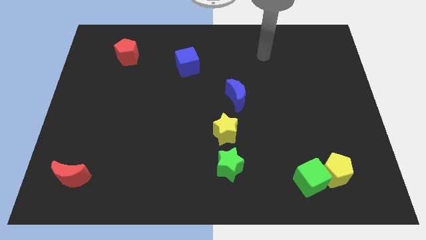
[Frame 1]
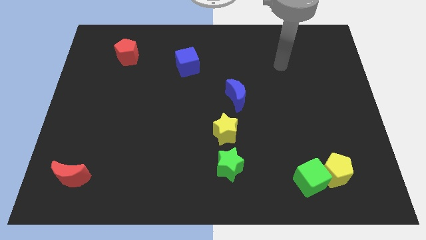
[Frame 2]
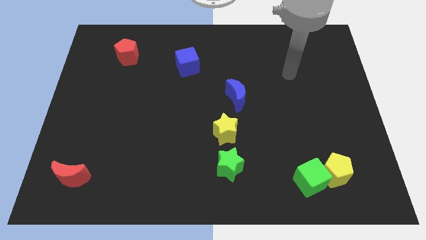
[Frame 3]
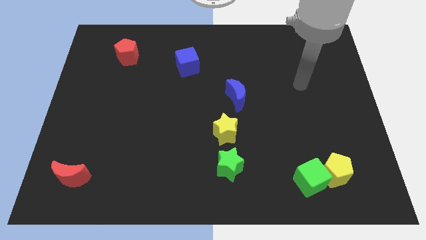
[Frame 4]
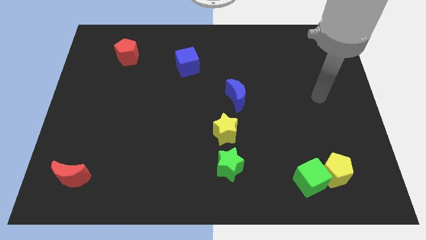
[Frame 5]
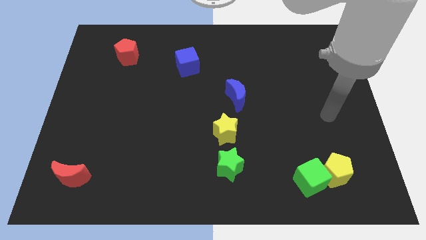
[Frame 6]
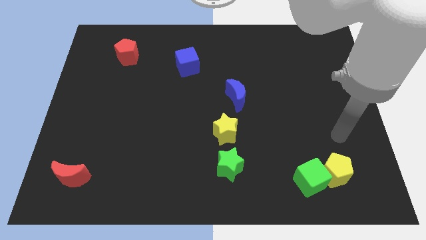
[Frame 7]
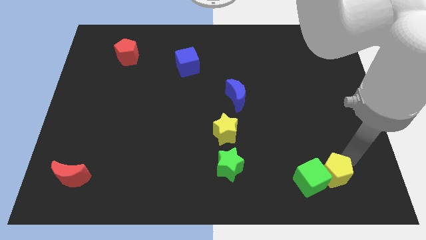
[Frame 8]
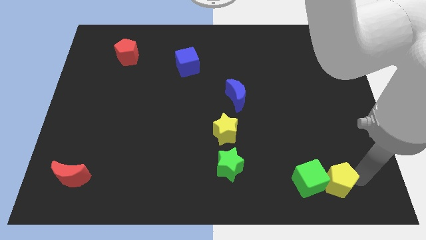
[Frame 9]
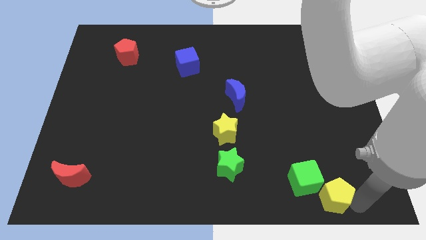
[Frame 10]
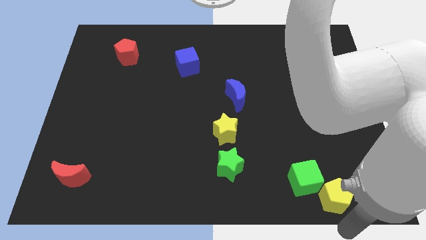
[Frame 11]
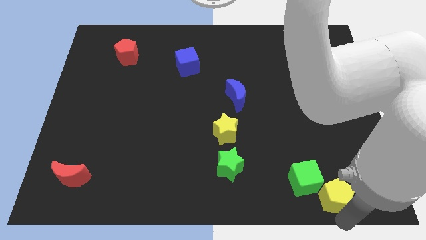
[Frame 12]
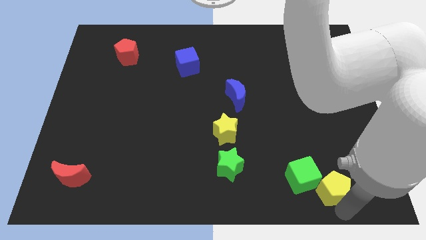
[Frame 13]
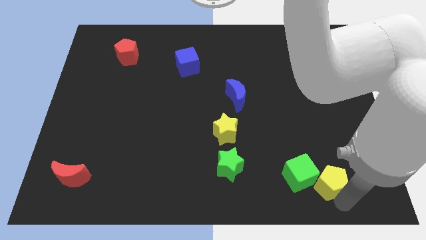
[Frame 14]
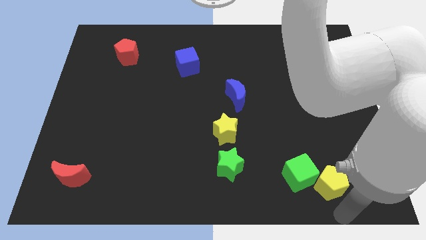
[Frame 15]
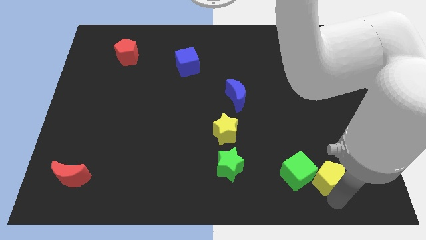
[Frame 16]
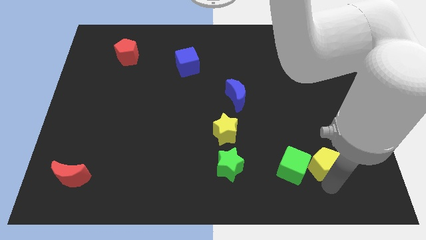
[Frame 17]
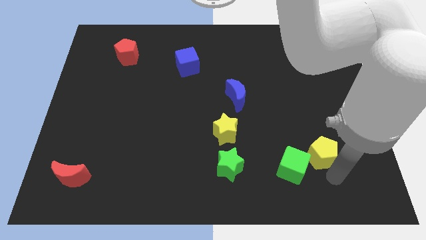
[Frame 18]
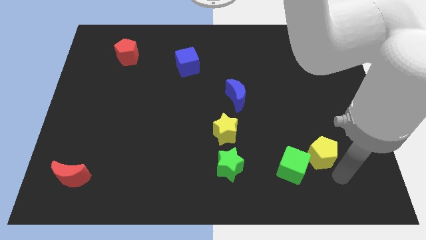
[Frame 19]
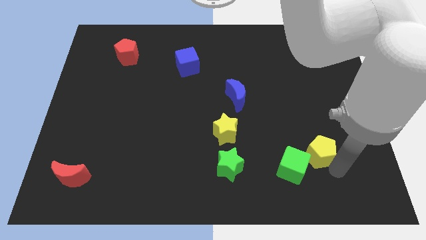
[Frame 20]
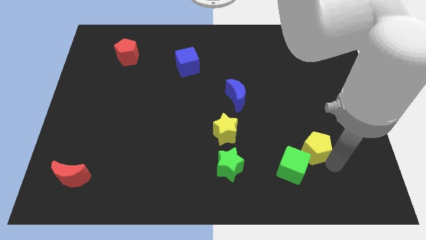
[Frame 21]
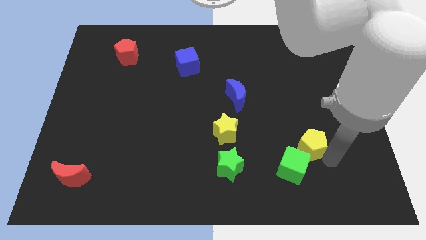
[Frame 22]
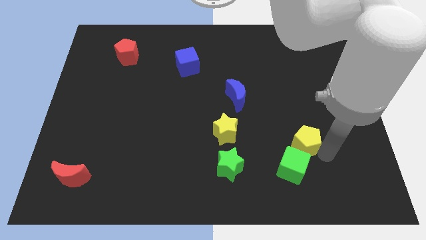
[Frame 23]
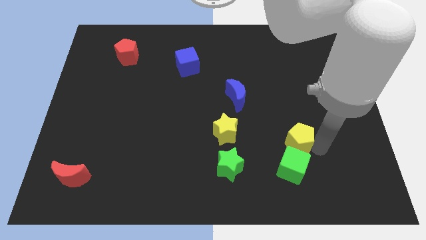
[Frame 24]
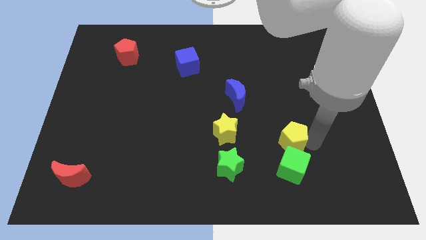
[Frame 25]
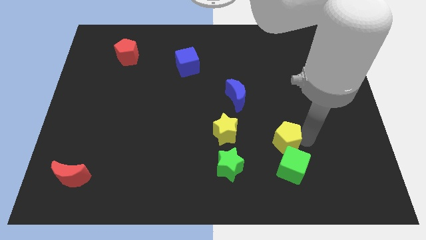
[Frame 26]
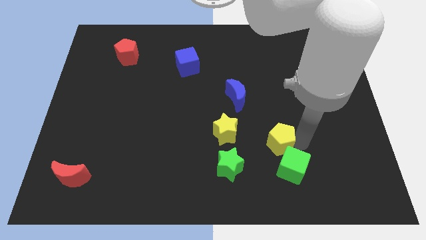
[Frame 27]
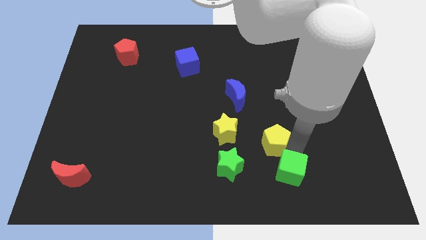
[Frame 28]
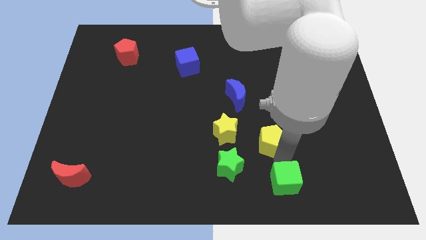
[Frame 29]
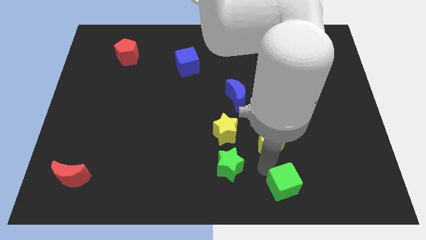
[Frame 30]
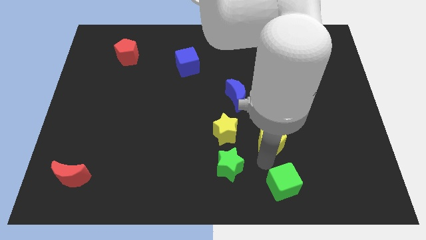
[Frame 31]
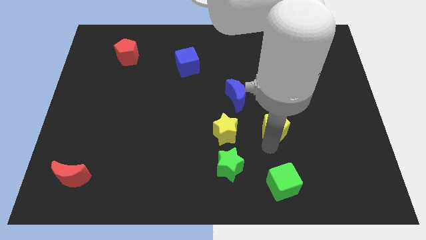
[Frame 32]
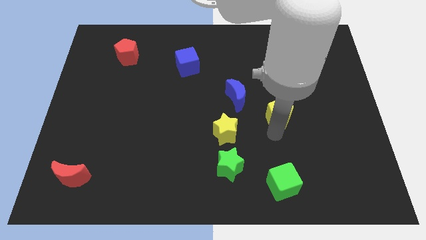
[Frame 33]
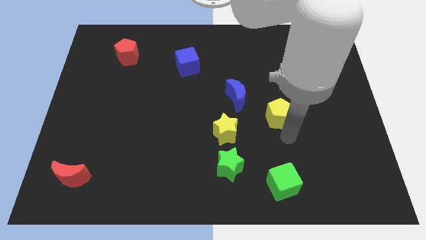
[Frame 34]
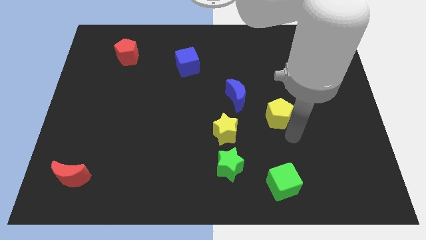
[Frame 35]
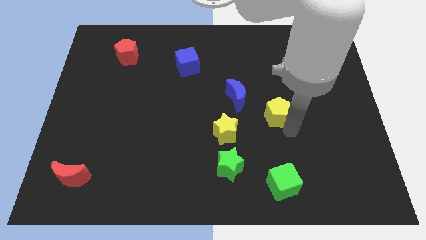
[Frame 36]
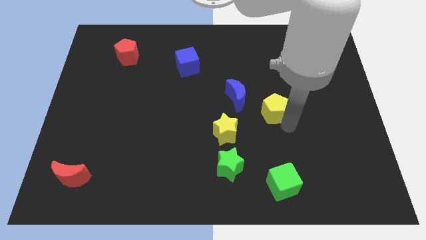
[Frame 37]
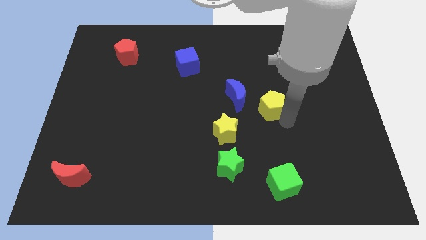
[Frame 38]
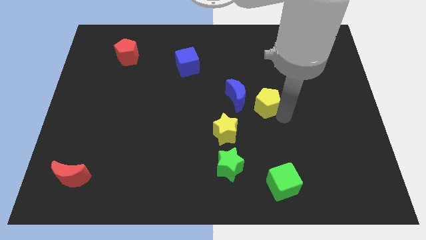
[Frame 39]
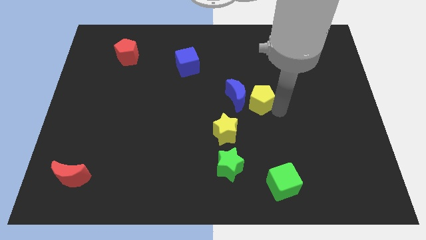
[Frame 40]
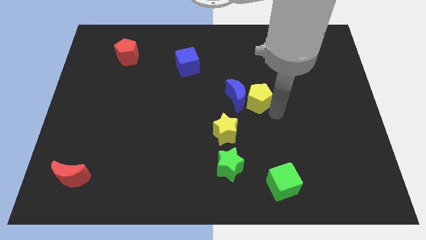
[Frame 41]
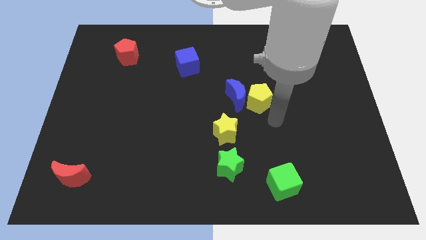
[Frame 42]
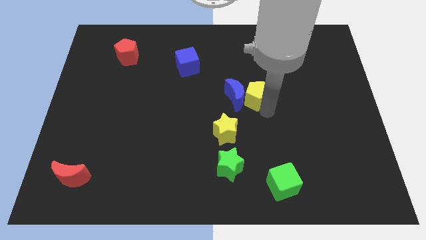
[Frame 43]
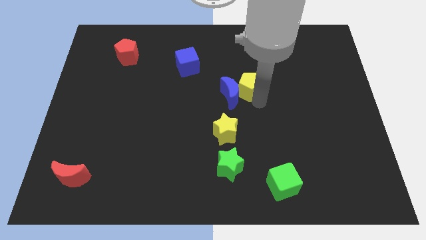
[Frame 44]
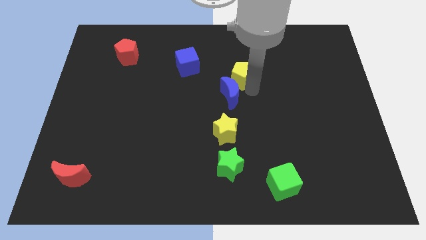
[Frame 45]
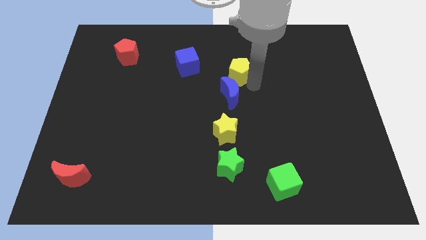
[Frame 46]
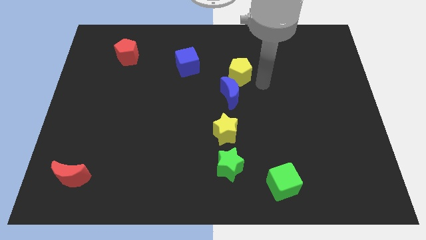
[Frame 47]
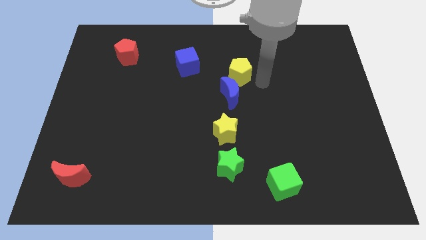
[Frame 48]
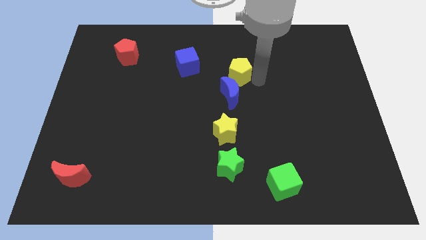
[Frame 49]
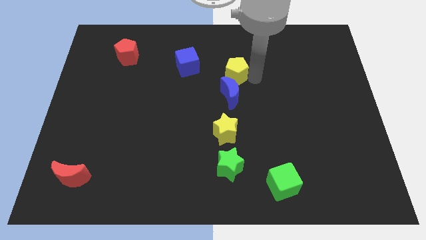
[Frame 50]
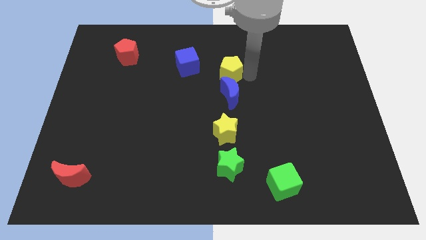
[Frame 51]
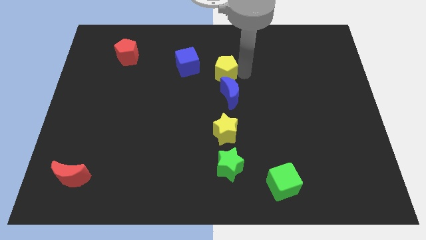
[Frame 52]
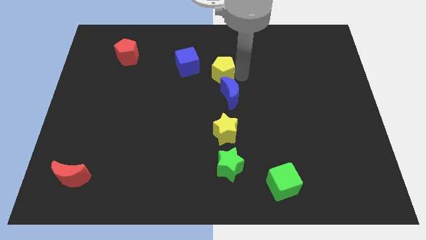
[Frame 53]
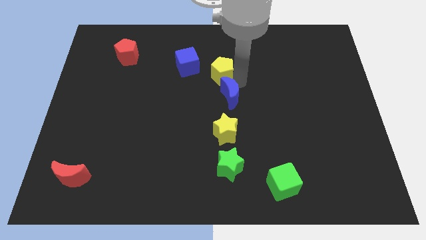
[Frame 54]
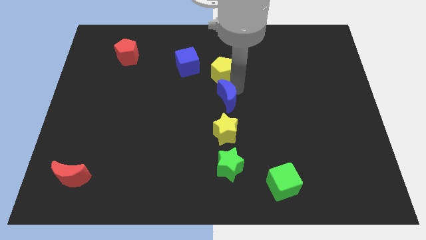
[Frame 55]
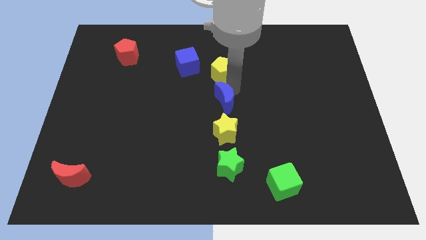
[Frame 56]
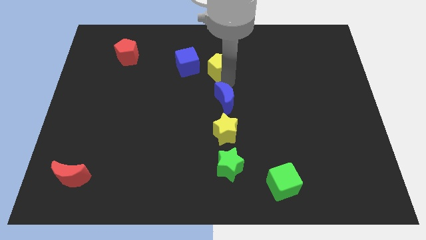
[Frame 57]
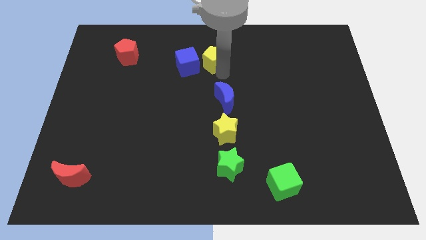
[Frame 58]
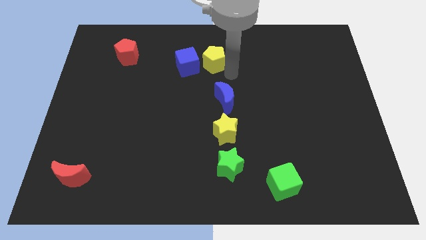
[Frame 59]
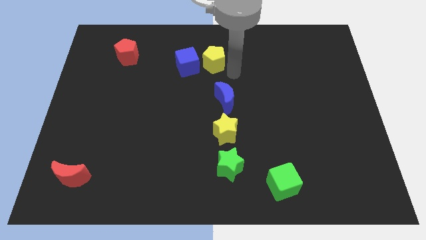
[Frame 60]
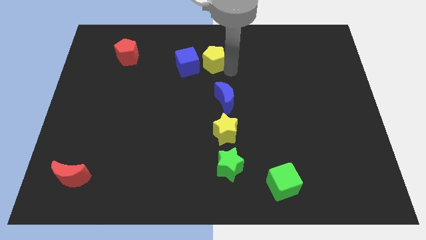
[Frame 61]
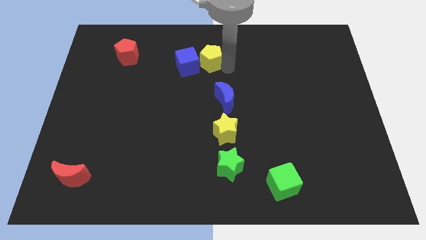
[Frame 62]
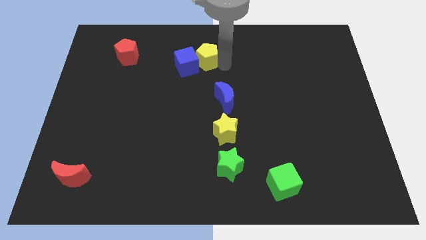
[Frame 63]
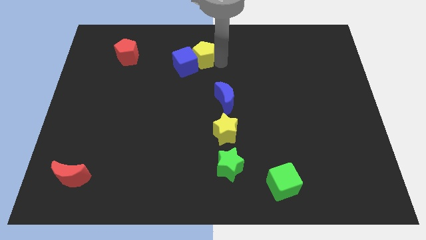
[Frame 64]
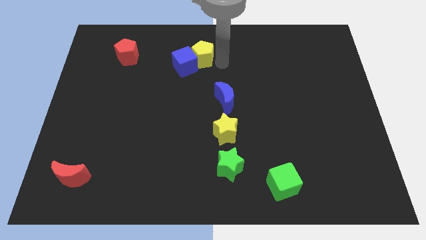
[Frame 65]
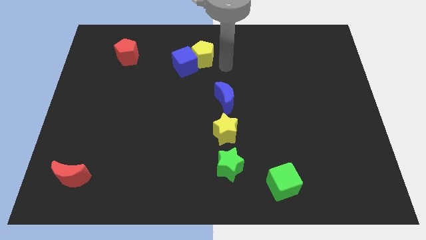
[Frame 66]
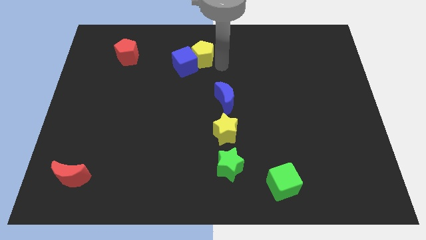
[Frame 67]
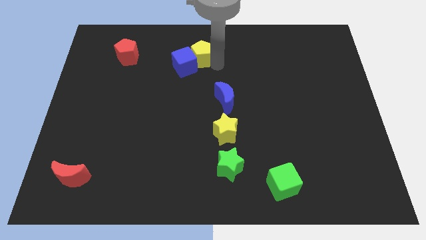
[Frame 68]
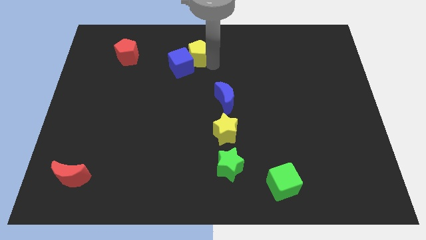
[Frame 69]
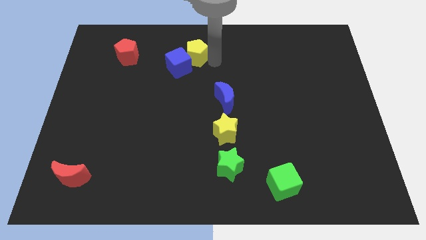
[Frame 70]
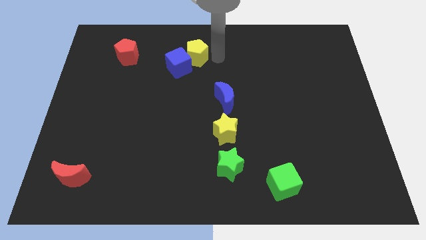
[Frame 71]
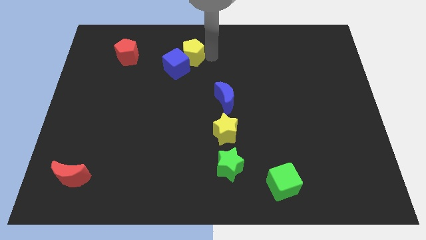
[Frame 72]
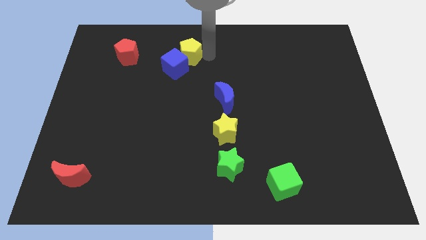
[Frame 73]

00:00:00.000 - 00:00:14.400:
put the yellow pentagon just right of the red pentagon
